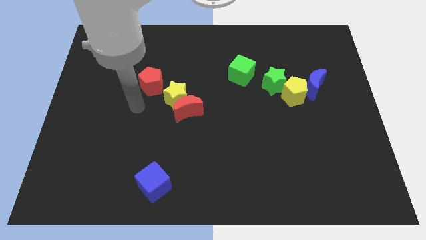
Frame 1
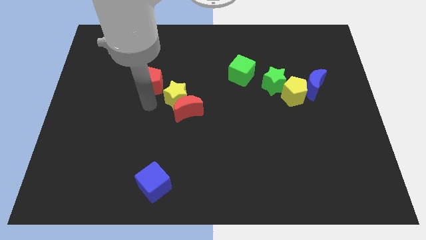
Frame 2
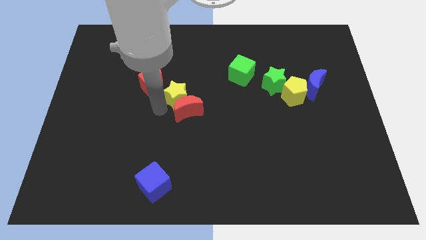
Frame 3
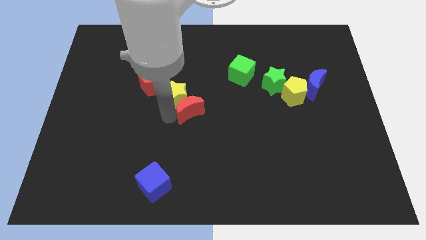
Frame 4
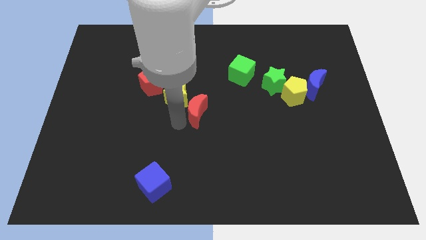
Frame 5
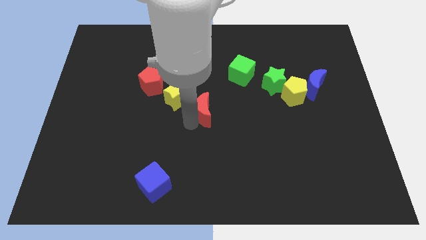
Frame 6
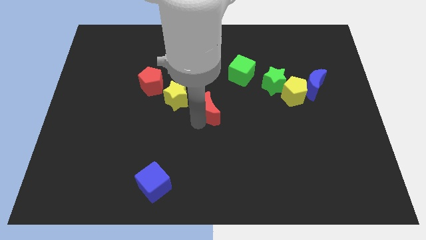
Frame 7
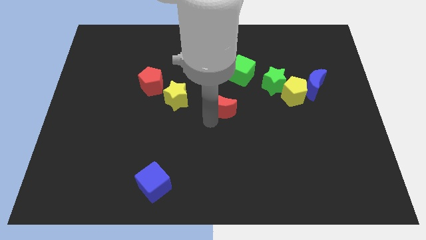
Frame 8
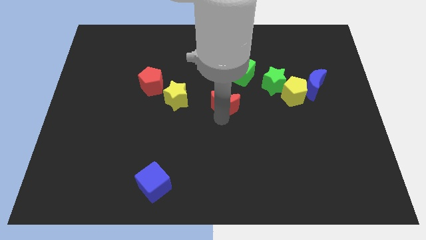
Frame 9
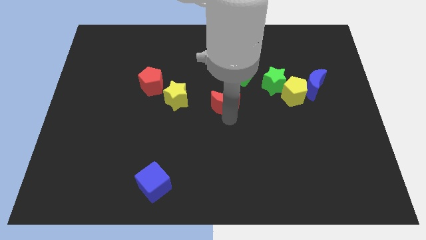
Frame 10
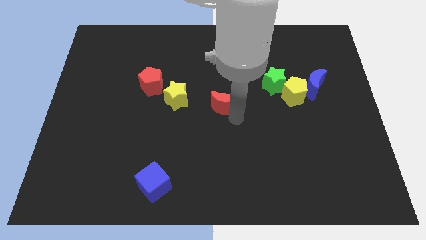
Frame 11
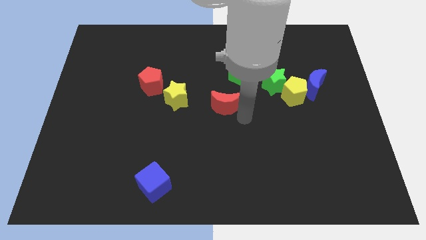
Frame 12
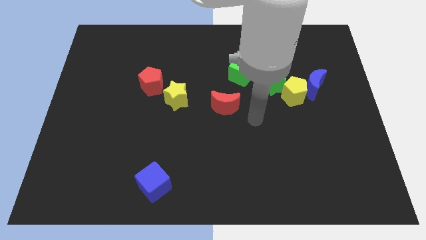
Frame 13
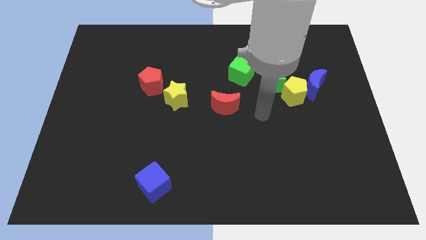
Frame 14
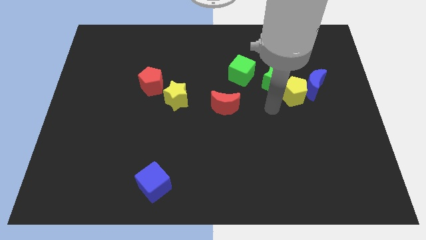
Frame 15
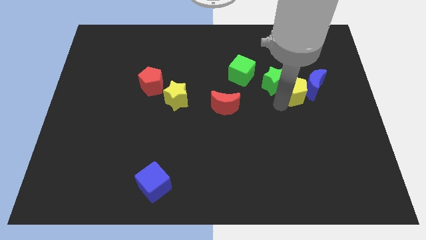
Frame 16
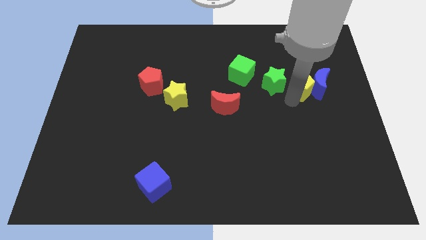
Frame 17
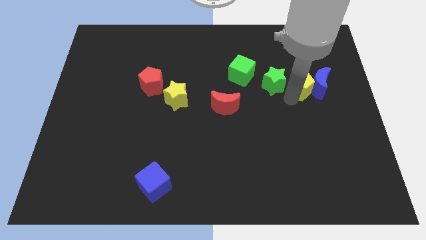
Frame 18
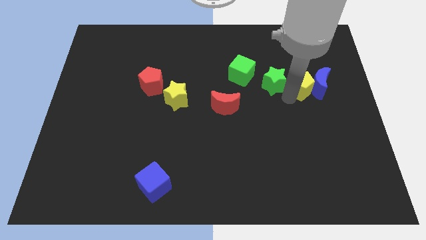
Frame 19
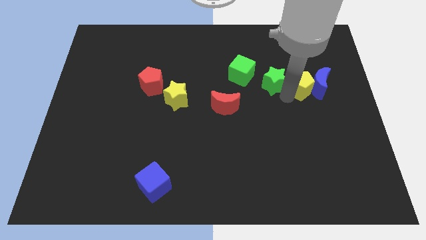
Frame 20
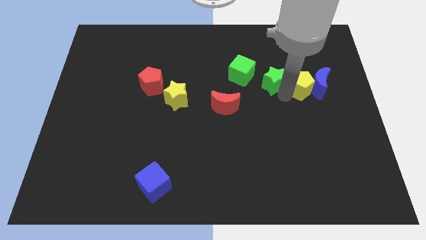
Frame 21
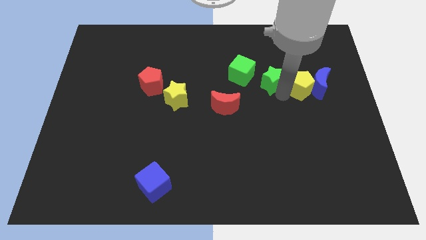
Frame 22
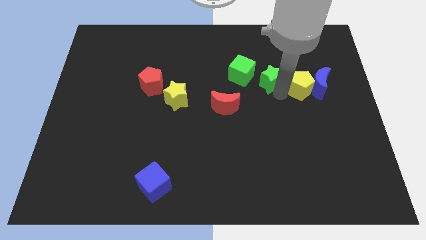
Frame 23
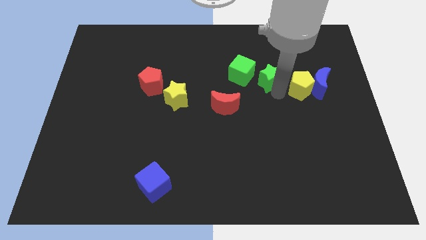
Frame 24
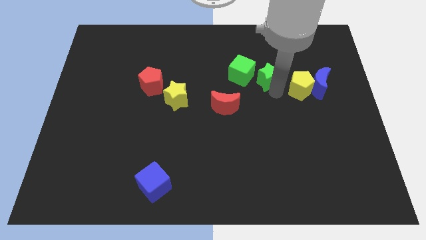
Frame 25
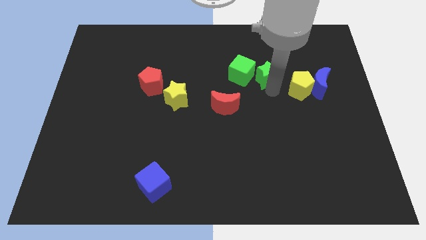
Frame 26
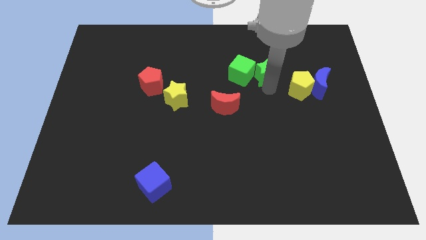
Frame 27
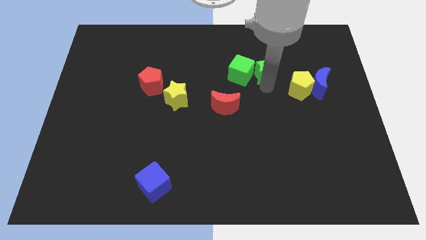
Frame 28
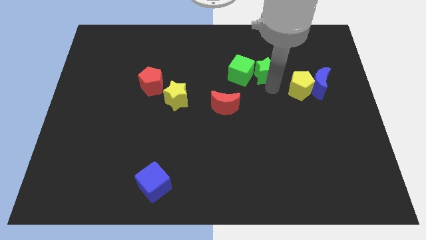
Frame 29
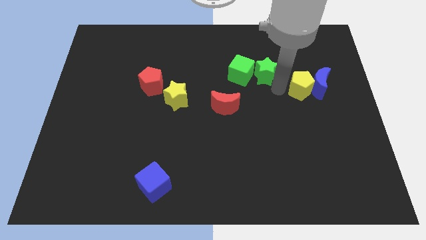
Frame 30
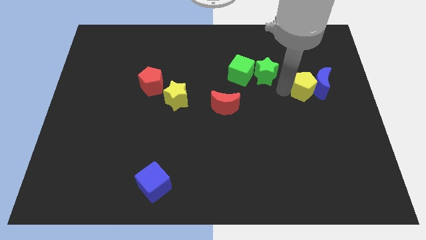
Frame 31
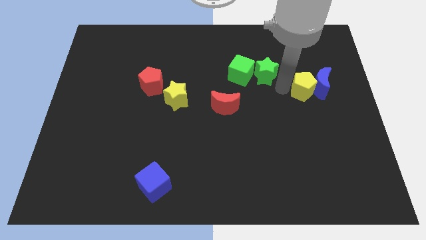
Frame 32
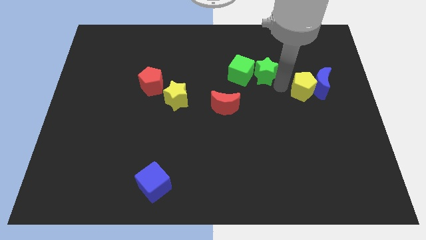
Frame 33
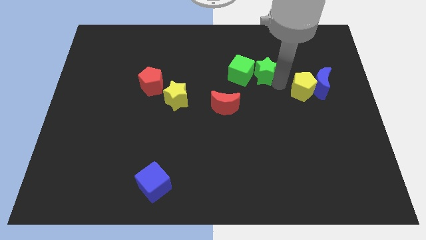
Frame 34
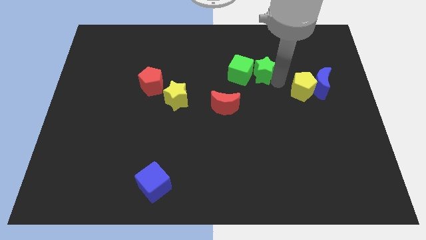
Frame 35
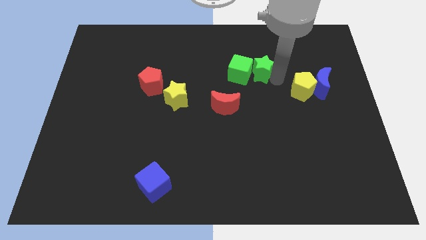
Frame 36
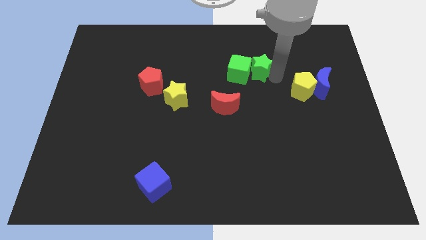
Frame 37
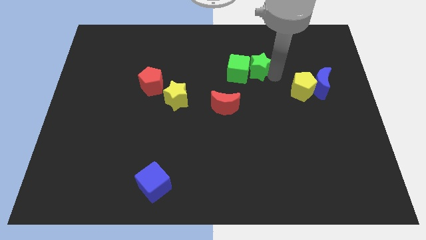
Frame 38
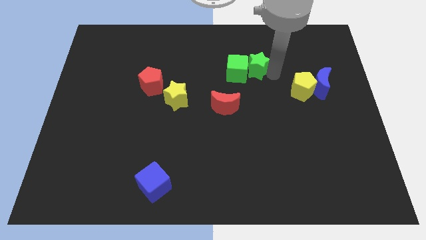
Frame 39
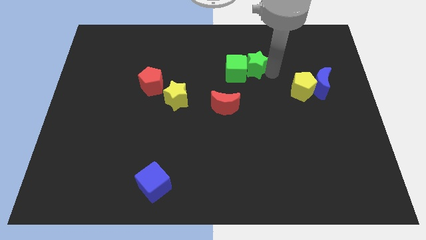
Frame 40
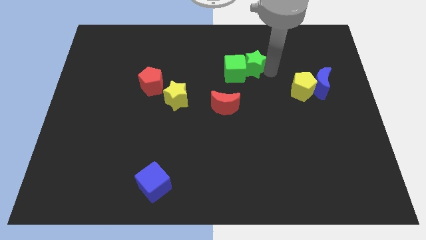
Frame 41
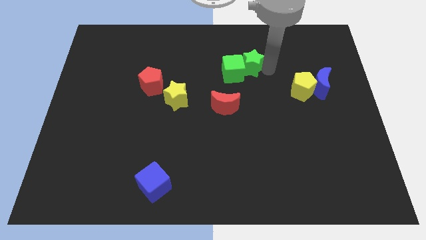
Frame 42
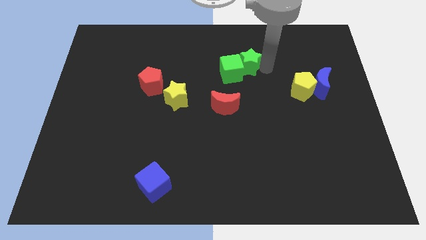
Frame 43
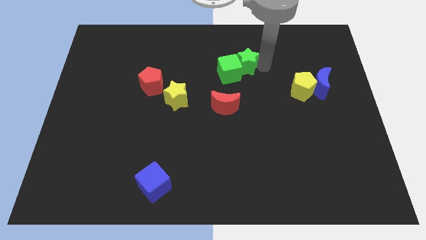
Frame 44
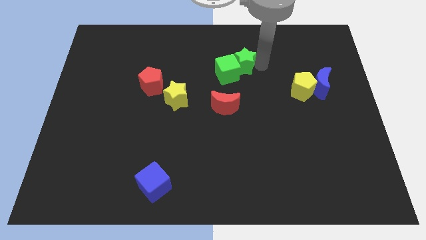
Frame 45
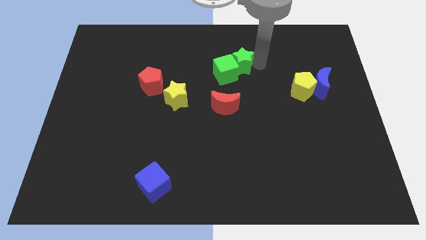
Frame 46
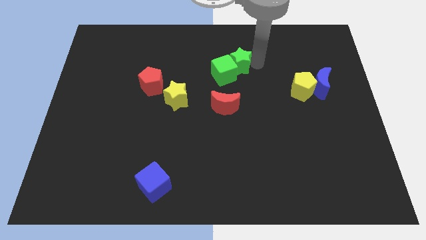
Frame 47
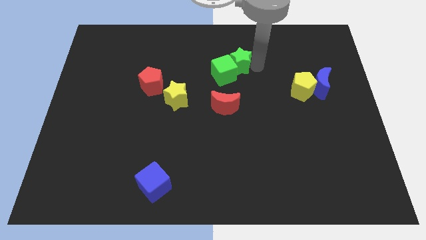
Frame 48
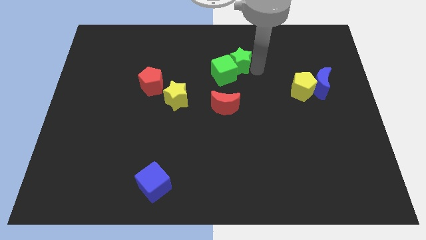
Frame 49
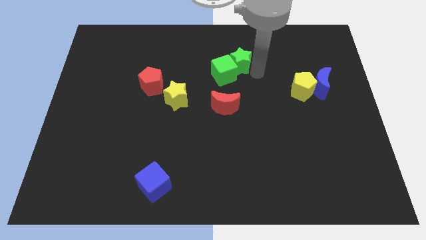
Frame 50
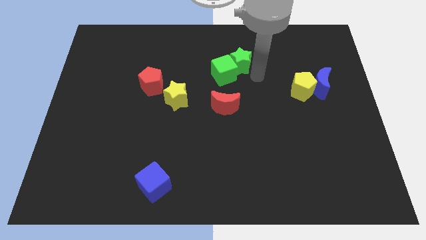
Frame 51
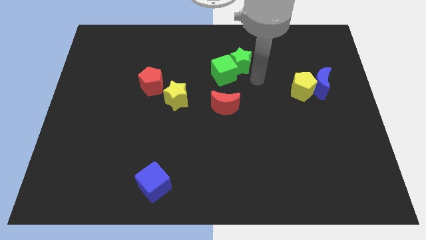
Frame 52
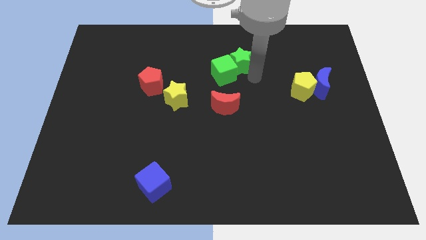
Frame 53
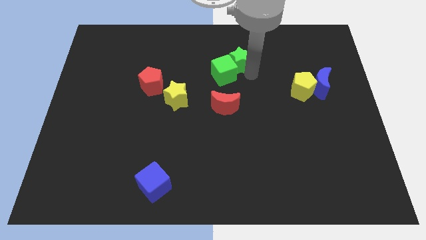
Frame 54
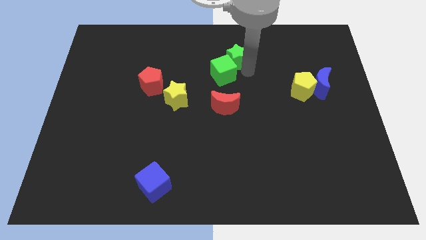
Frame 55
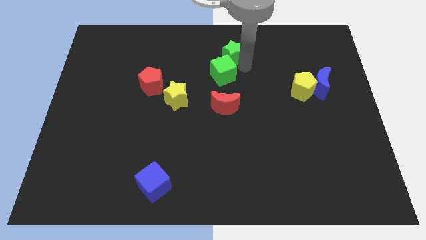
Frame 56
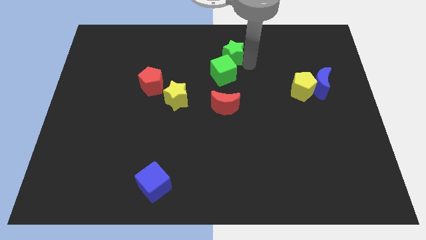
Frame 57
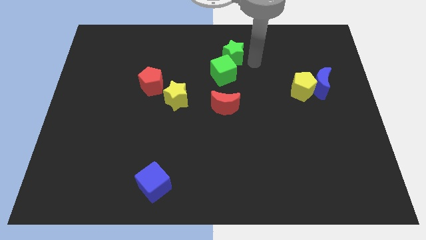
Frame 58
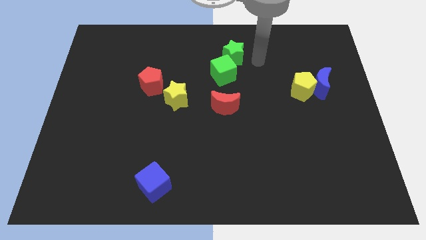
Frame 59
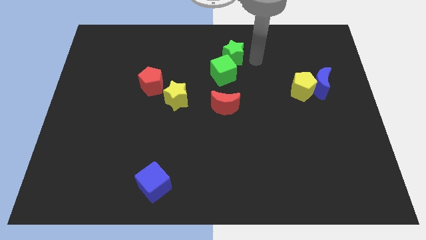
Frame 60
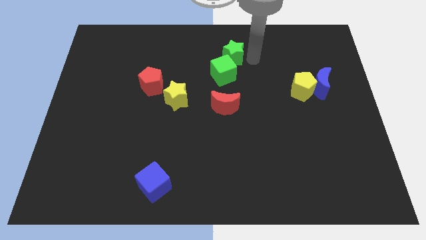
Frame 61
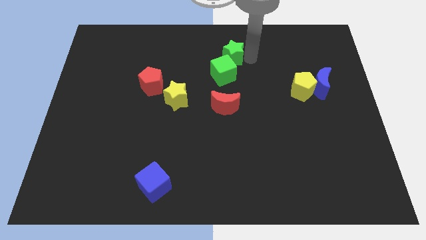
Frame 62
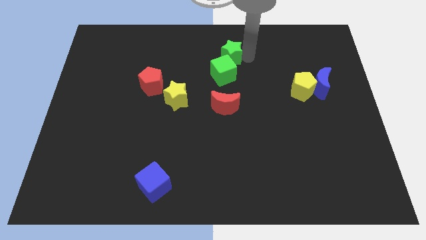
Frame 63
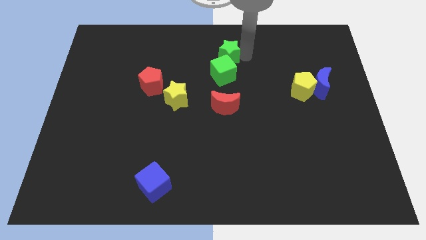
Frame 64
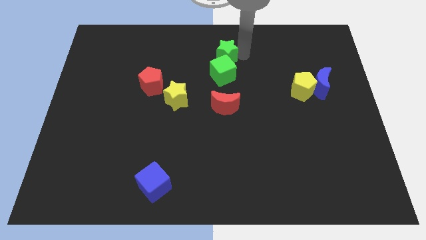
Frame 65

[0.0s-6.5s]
move the green star to the top
